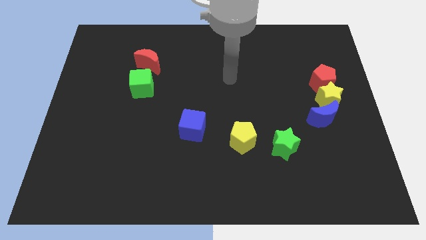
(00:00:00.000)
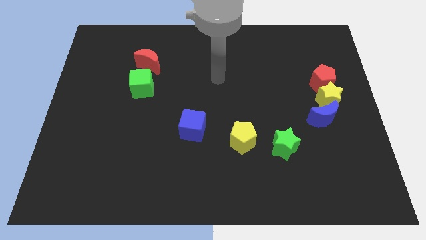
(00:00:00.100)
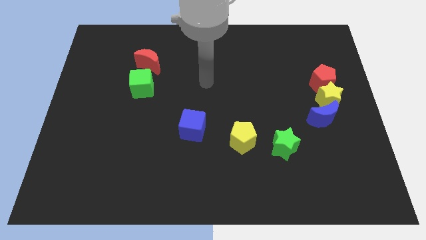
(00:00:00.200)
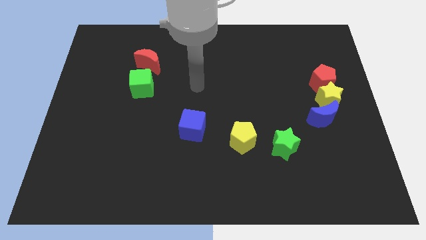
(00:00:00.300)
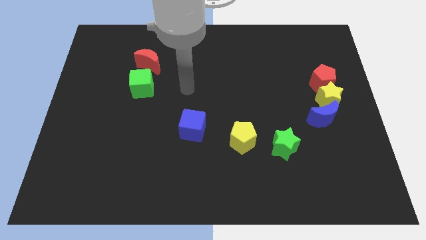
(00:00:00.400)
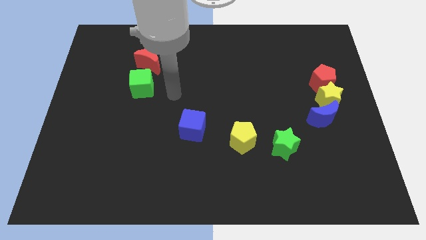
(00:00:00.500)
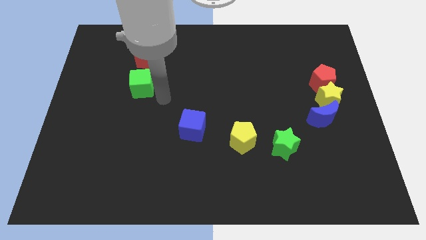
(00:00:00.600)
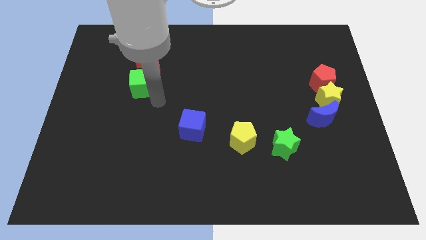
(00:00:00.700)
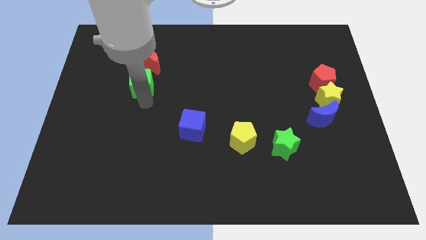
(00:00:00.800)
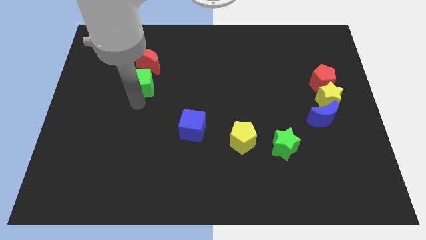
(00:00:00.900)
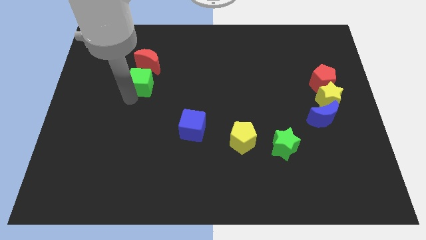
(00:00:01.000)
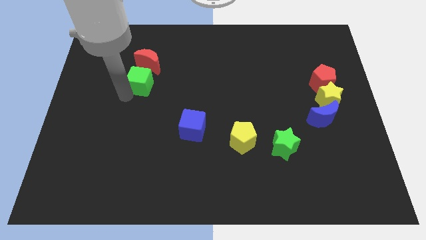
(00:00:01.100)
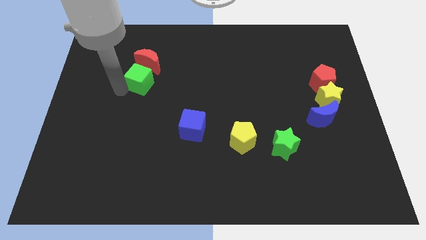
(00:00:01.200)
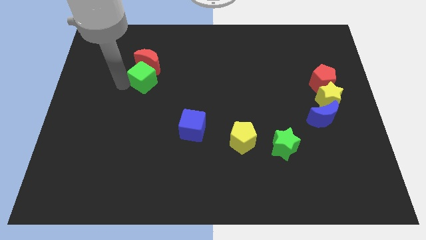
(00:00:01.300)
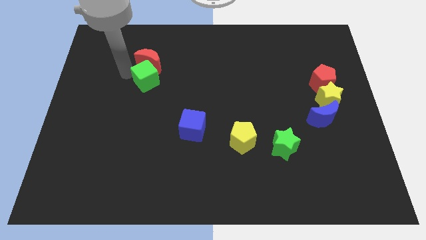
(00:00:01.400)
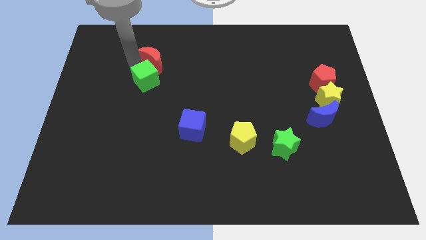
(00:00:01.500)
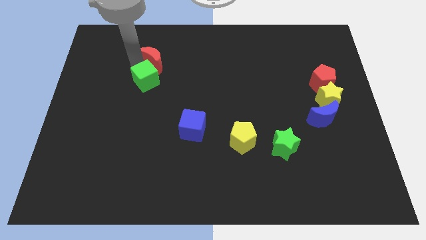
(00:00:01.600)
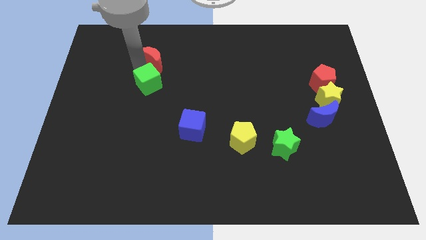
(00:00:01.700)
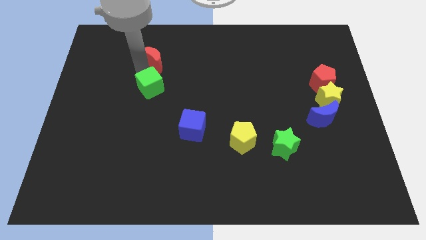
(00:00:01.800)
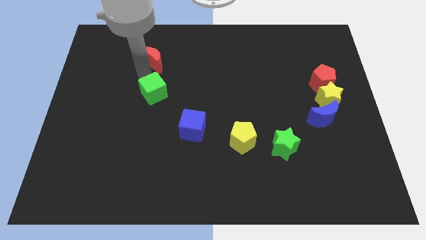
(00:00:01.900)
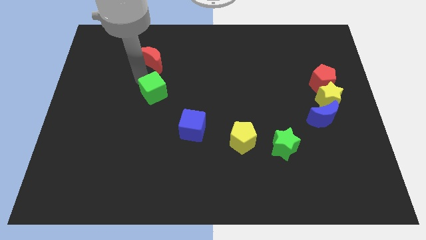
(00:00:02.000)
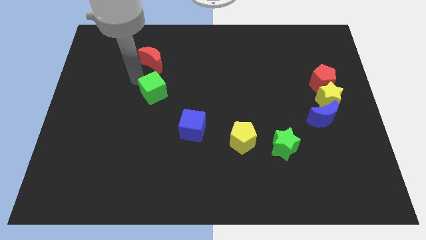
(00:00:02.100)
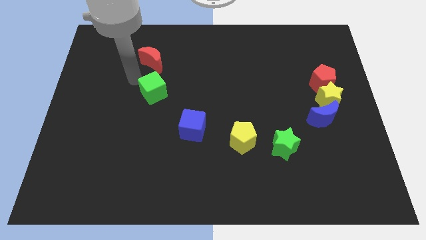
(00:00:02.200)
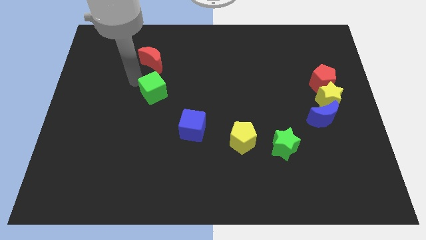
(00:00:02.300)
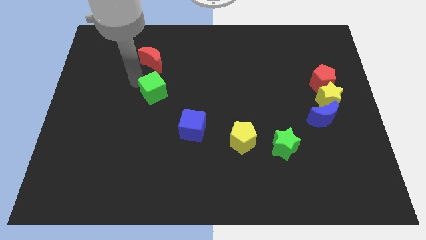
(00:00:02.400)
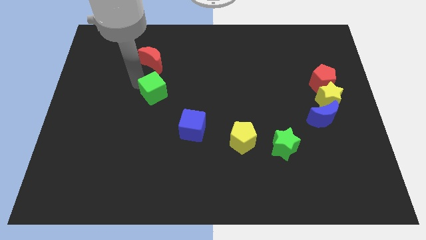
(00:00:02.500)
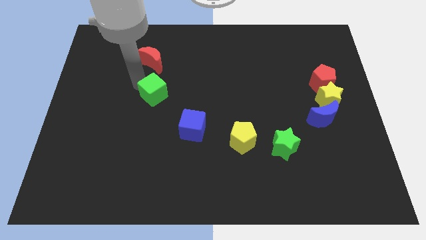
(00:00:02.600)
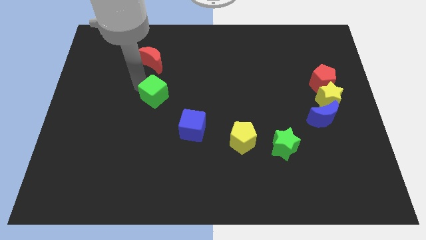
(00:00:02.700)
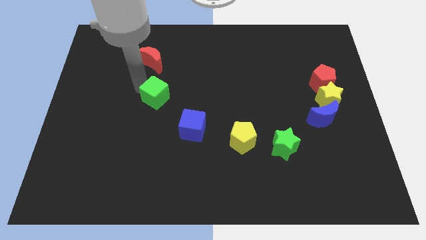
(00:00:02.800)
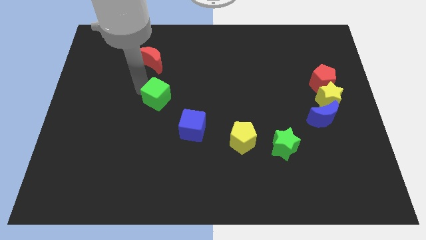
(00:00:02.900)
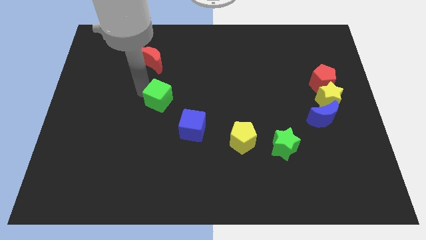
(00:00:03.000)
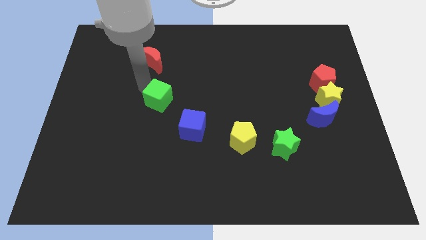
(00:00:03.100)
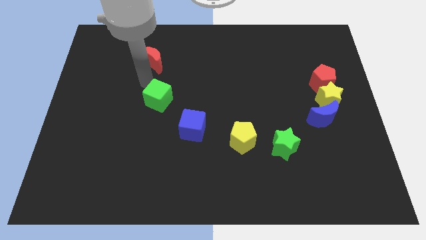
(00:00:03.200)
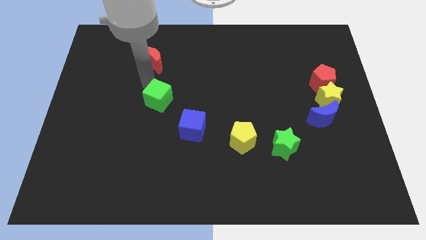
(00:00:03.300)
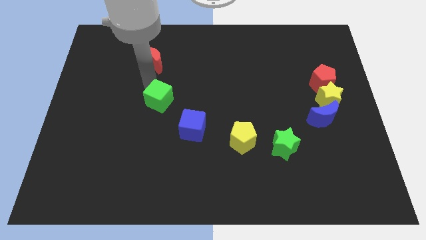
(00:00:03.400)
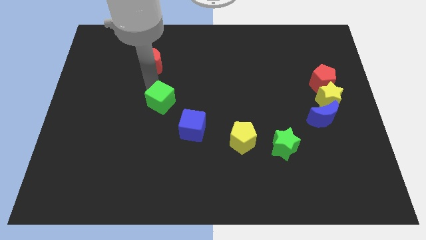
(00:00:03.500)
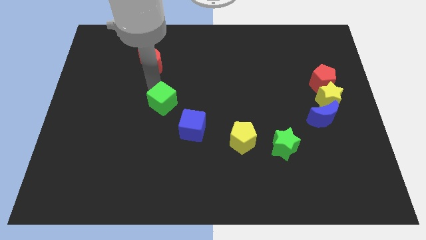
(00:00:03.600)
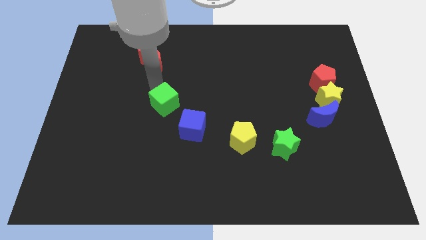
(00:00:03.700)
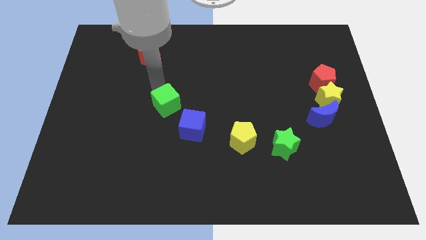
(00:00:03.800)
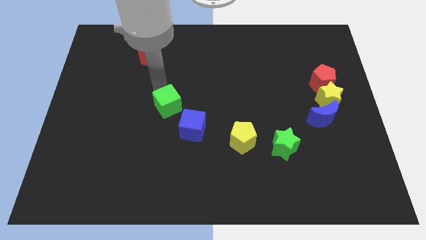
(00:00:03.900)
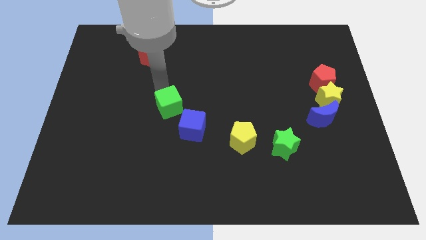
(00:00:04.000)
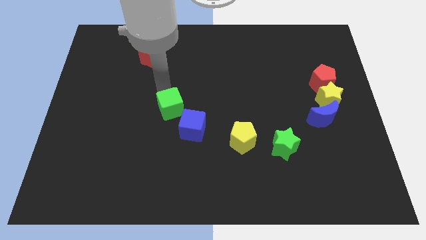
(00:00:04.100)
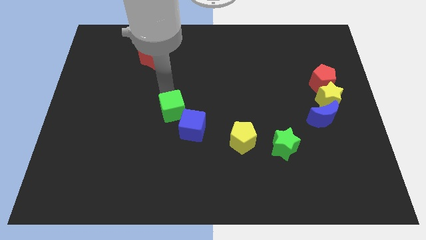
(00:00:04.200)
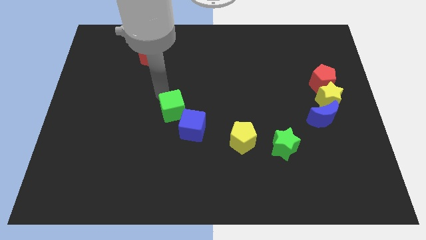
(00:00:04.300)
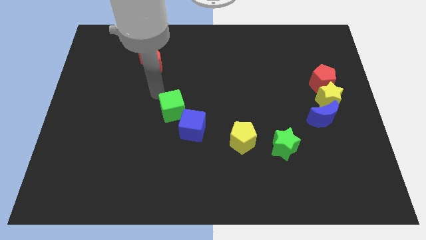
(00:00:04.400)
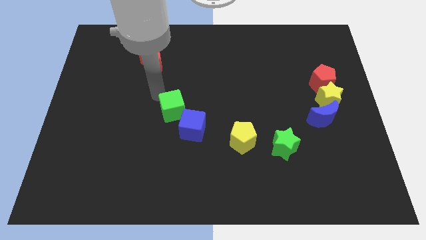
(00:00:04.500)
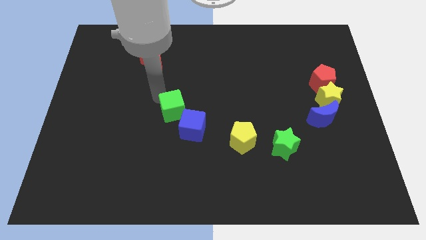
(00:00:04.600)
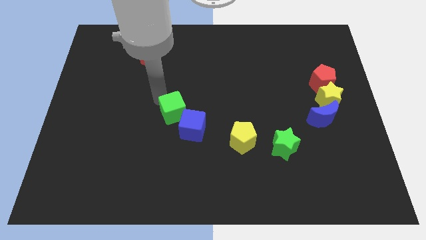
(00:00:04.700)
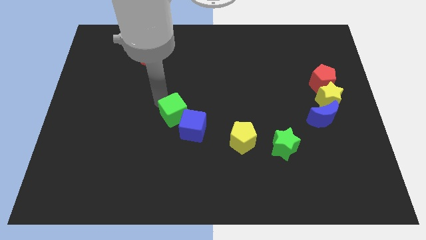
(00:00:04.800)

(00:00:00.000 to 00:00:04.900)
push the green cube to the blue cube

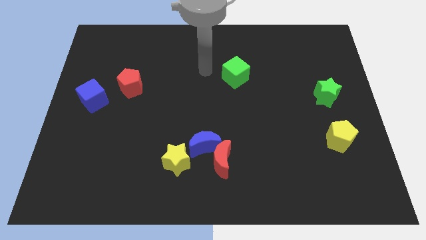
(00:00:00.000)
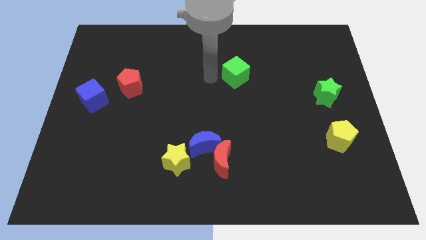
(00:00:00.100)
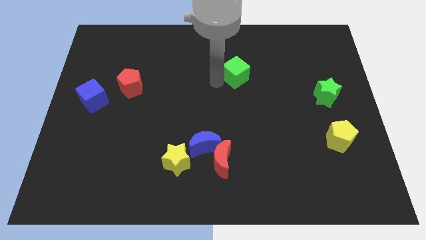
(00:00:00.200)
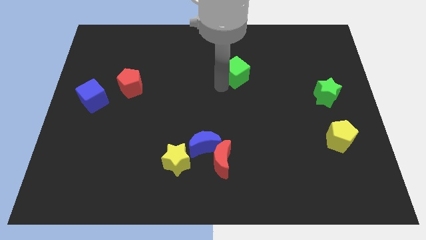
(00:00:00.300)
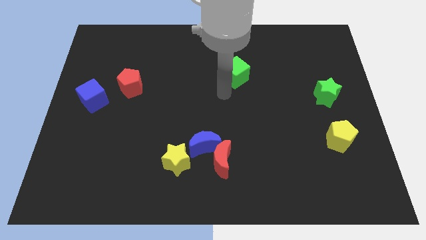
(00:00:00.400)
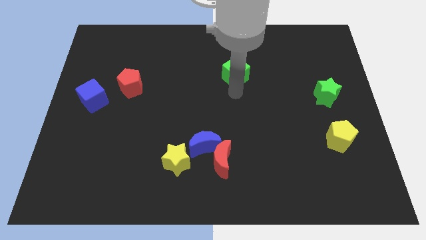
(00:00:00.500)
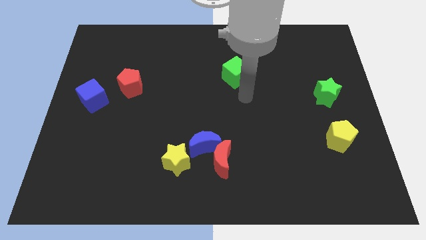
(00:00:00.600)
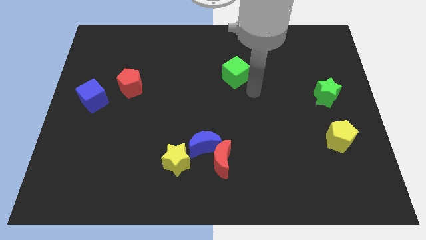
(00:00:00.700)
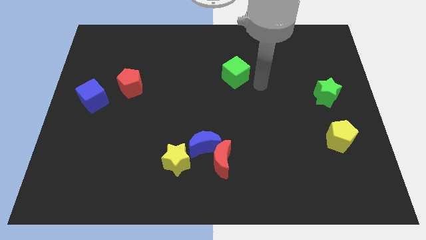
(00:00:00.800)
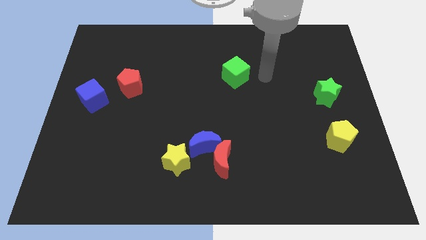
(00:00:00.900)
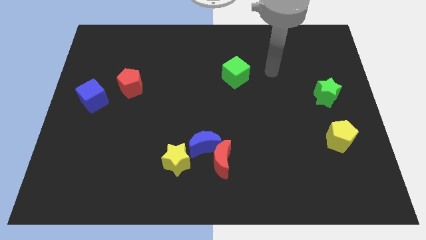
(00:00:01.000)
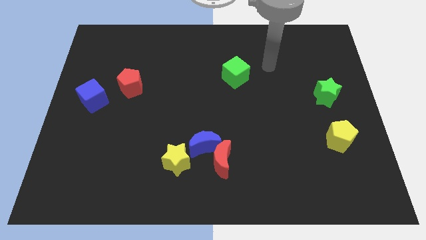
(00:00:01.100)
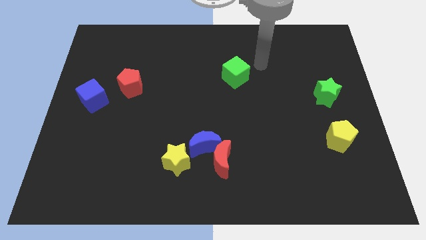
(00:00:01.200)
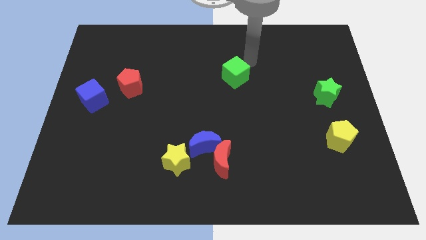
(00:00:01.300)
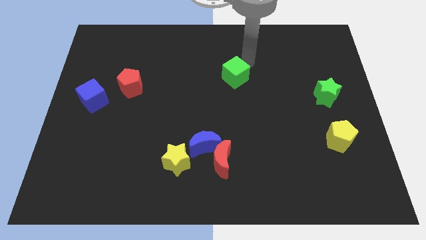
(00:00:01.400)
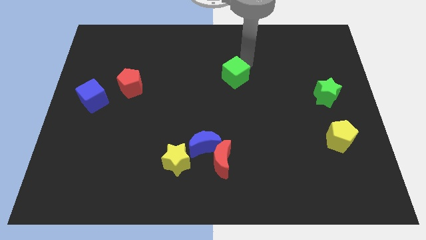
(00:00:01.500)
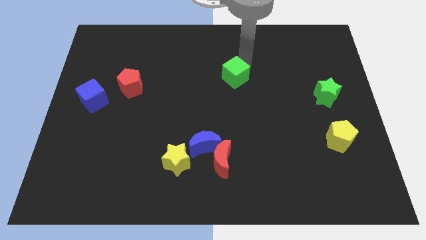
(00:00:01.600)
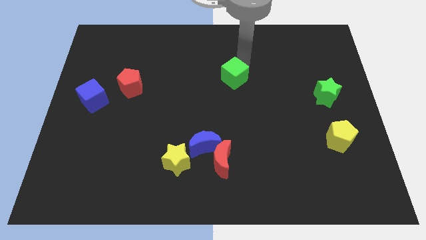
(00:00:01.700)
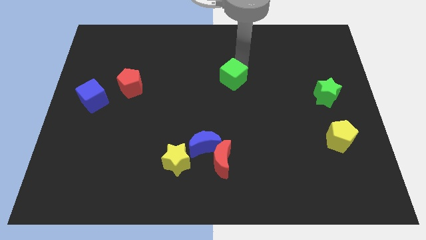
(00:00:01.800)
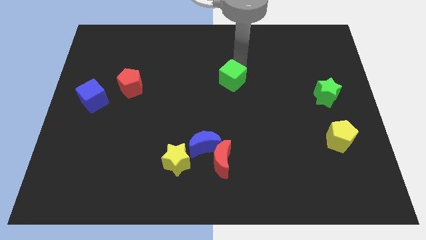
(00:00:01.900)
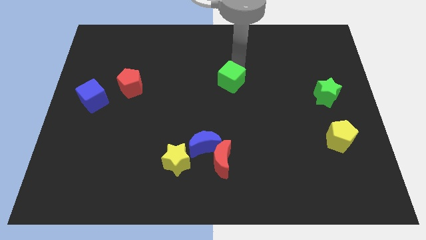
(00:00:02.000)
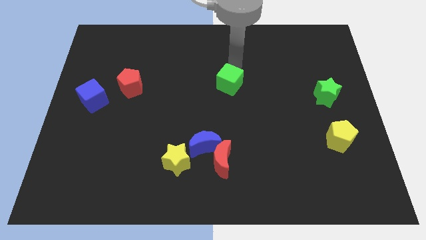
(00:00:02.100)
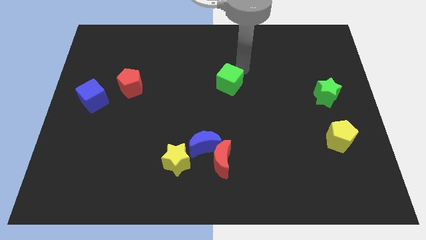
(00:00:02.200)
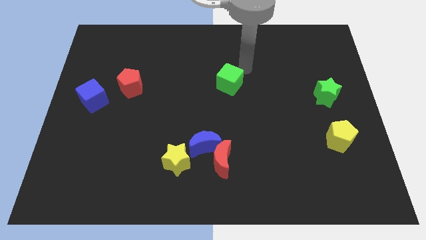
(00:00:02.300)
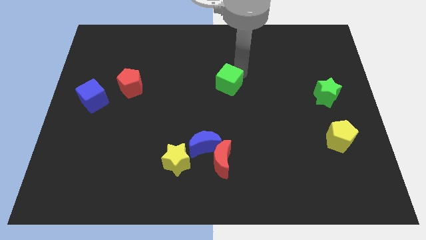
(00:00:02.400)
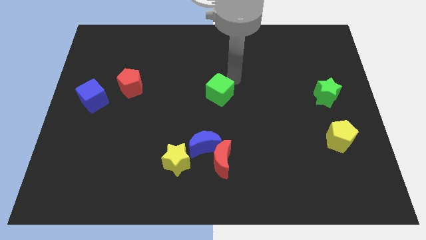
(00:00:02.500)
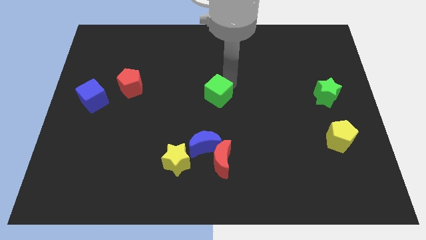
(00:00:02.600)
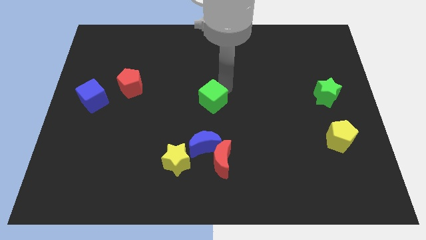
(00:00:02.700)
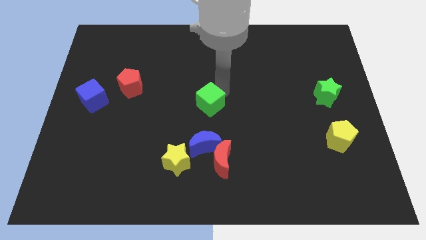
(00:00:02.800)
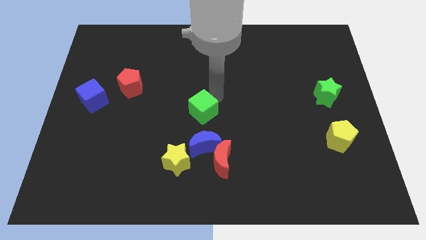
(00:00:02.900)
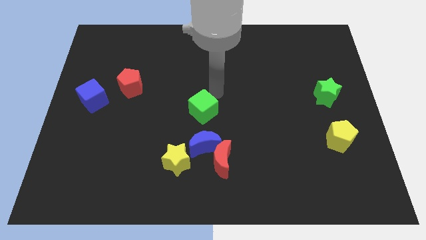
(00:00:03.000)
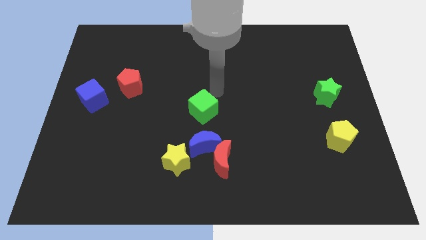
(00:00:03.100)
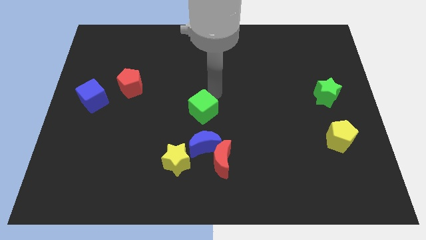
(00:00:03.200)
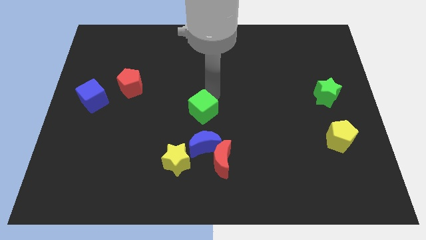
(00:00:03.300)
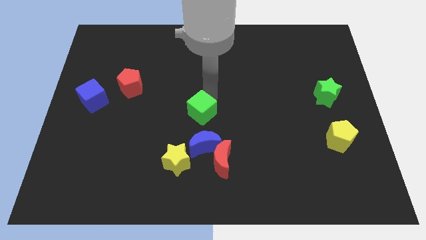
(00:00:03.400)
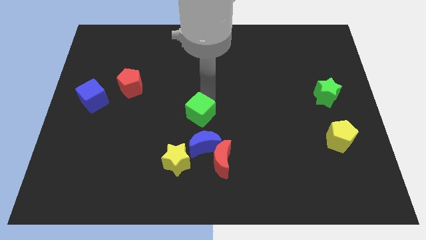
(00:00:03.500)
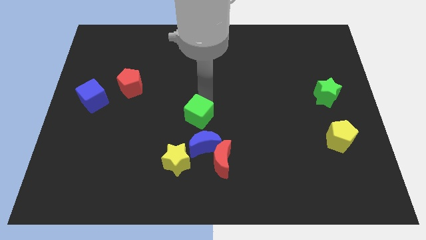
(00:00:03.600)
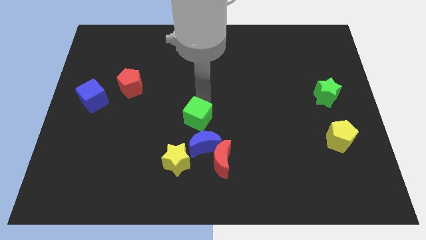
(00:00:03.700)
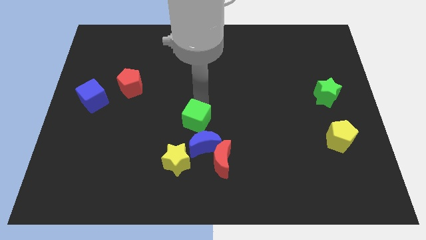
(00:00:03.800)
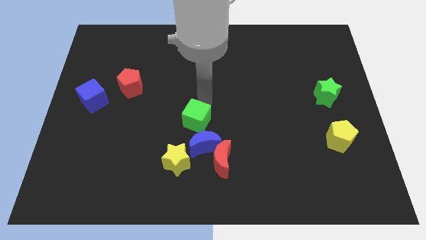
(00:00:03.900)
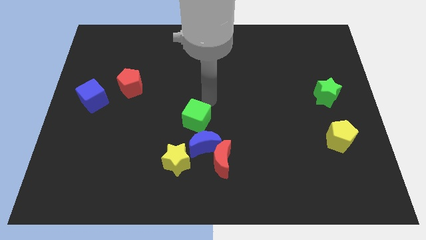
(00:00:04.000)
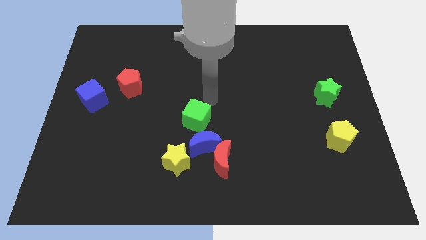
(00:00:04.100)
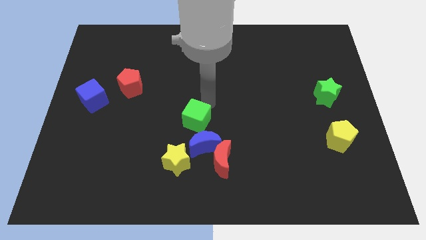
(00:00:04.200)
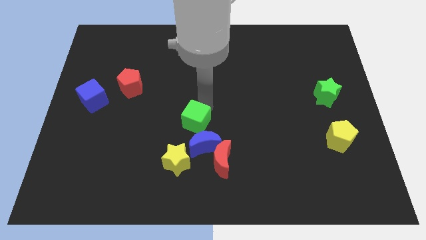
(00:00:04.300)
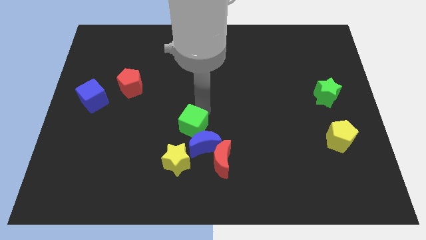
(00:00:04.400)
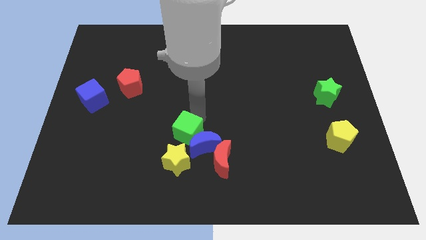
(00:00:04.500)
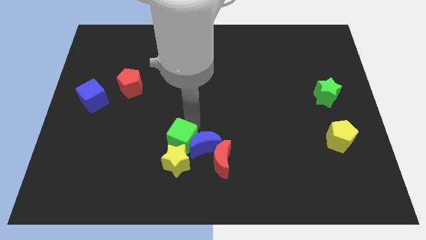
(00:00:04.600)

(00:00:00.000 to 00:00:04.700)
push the green cube towards the yellow star
